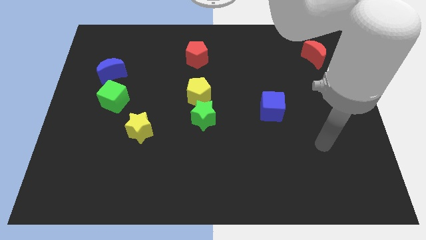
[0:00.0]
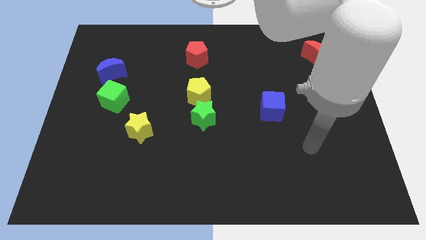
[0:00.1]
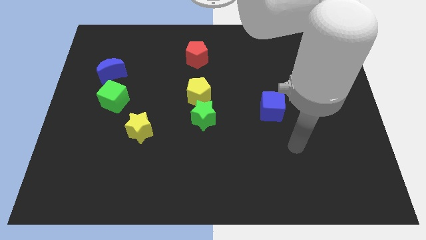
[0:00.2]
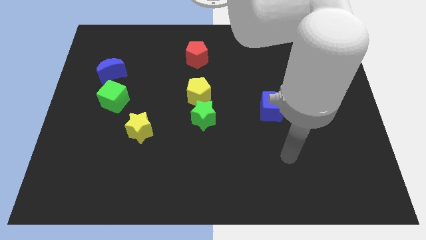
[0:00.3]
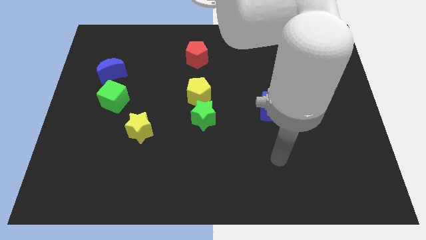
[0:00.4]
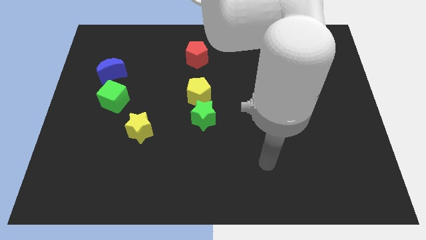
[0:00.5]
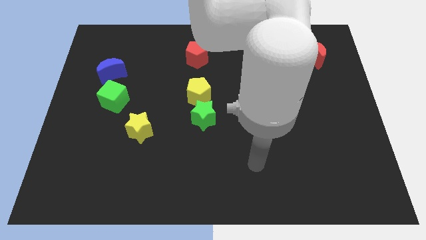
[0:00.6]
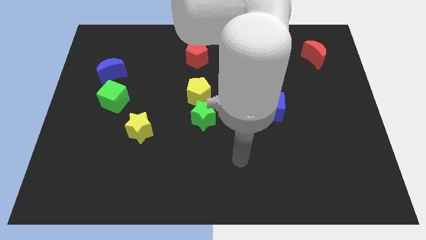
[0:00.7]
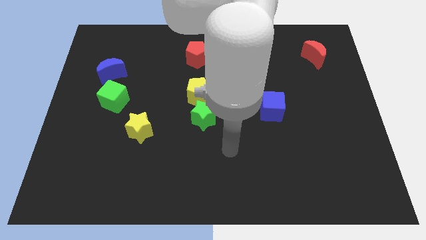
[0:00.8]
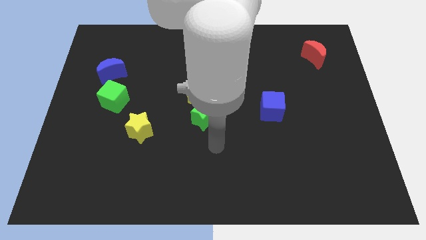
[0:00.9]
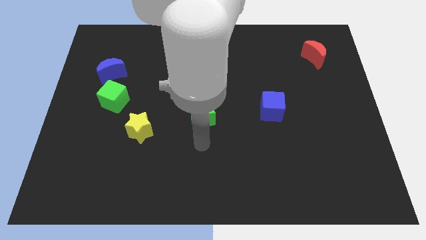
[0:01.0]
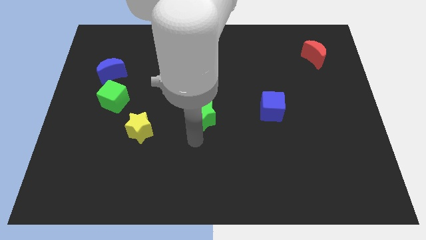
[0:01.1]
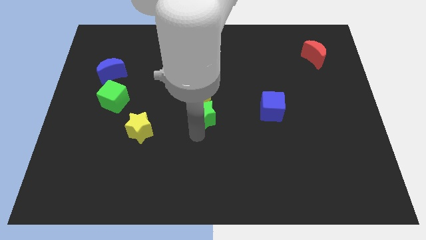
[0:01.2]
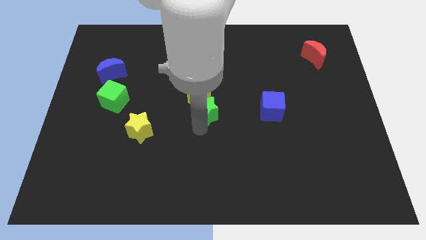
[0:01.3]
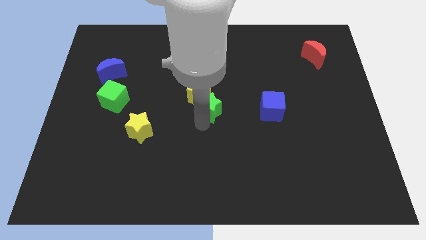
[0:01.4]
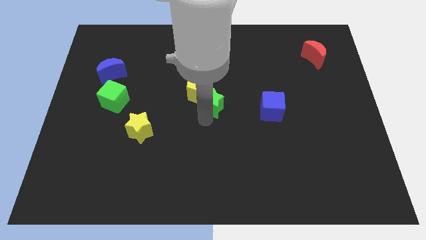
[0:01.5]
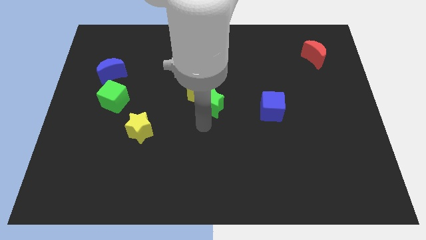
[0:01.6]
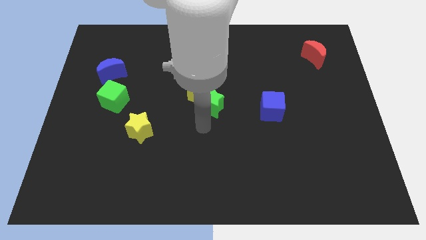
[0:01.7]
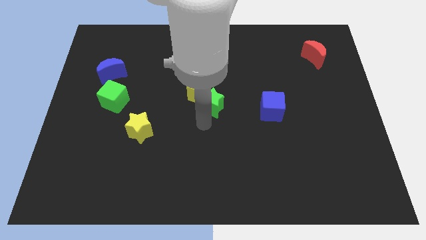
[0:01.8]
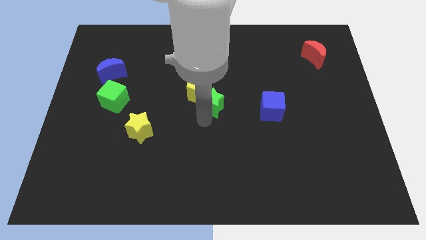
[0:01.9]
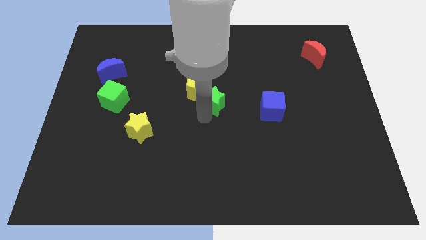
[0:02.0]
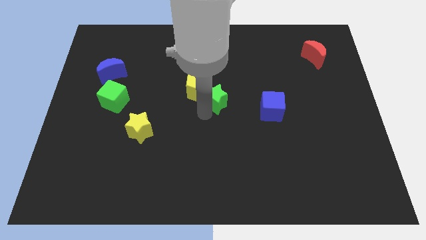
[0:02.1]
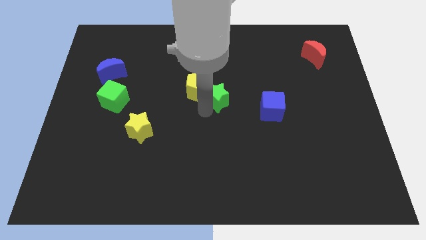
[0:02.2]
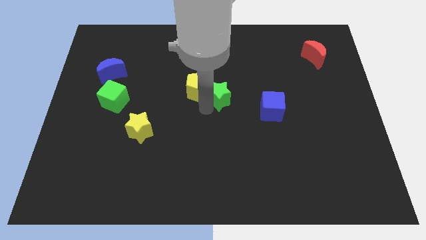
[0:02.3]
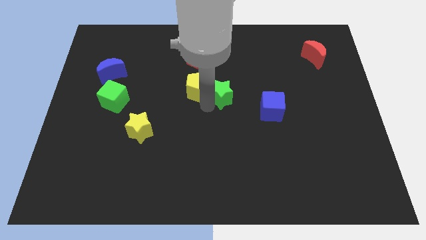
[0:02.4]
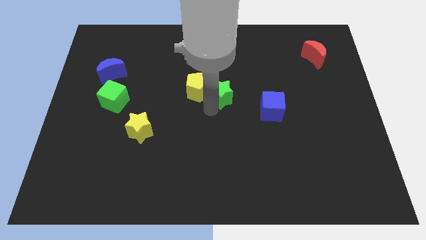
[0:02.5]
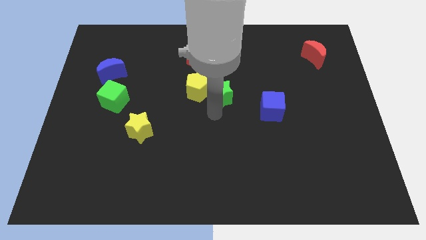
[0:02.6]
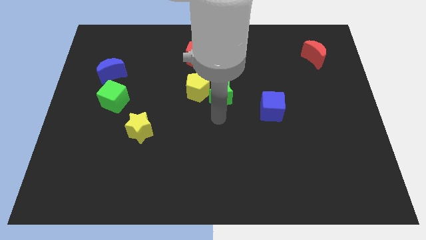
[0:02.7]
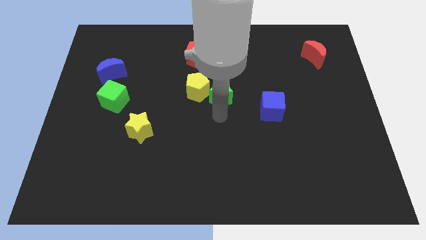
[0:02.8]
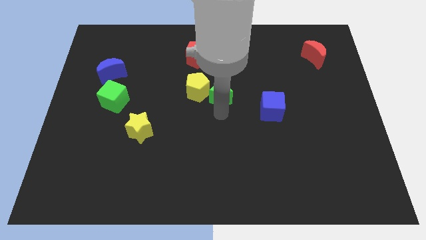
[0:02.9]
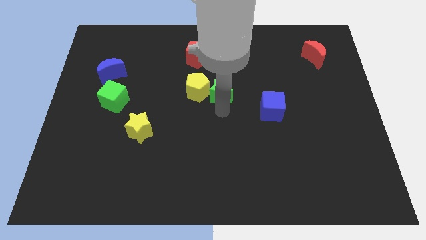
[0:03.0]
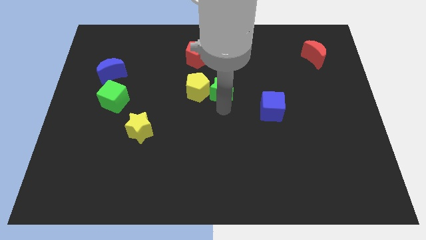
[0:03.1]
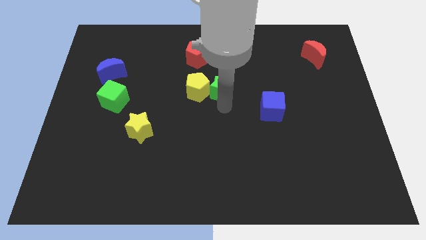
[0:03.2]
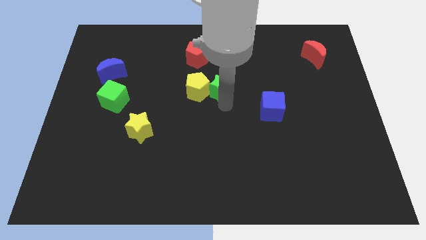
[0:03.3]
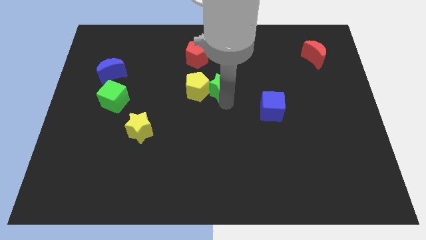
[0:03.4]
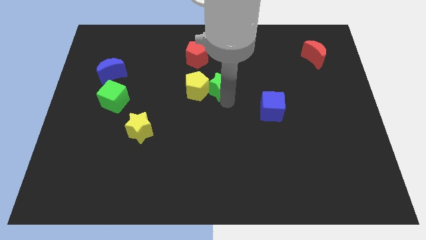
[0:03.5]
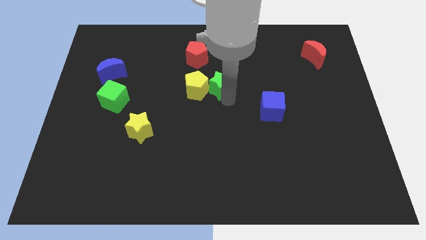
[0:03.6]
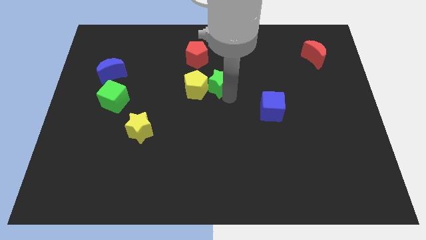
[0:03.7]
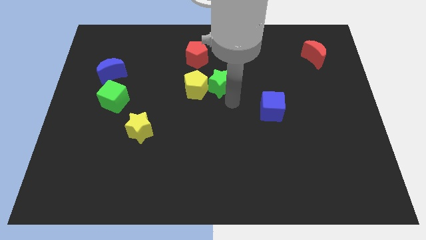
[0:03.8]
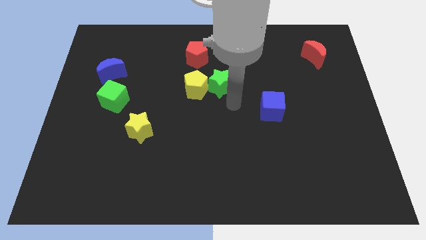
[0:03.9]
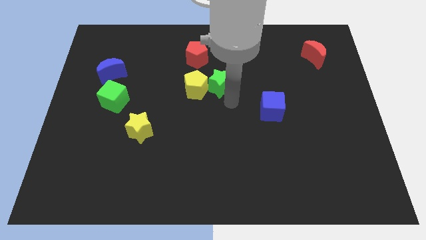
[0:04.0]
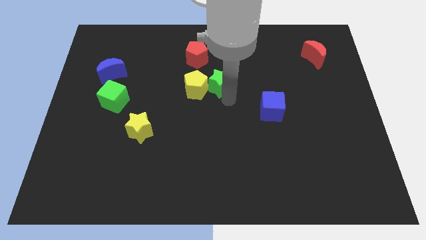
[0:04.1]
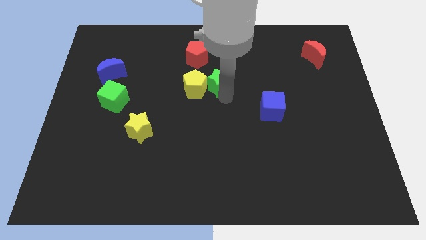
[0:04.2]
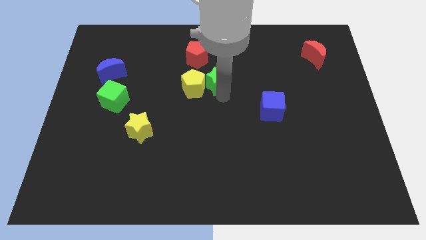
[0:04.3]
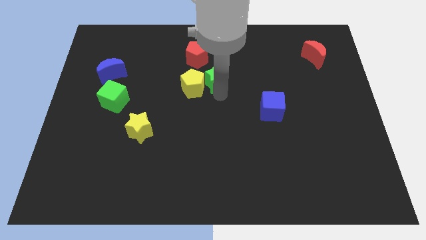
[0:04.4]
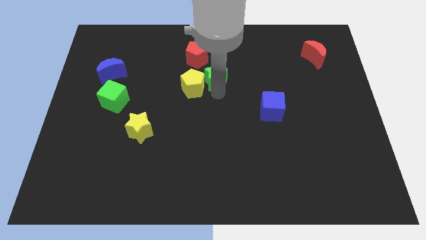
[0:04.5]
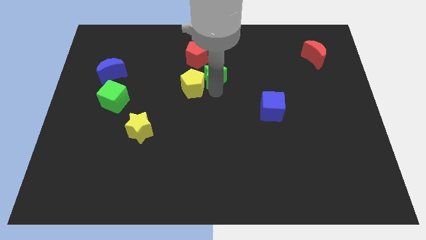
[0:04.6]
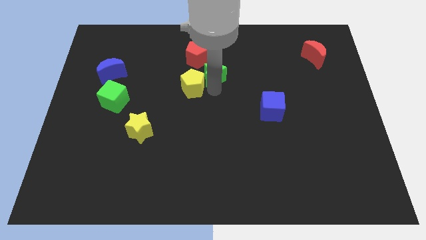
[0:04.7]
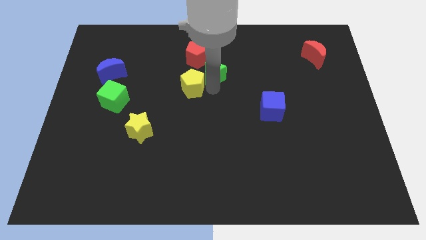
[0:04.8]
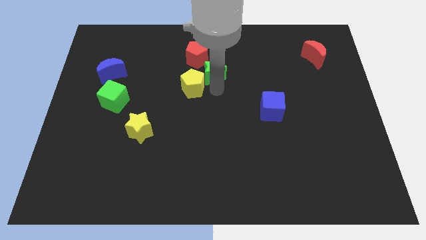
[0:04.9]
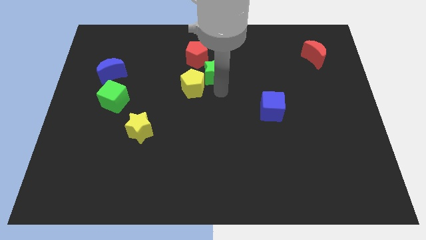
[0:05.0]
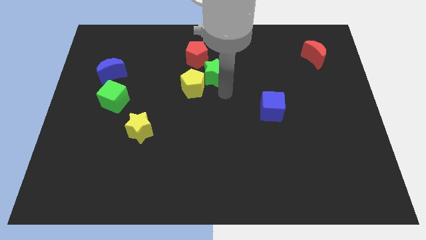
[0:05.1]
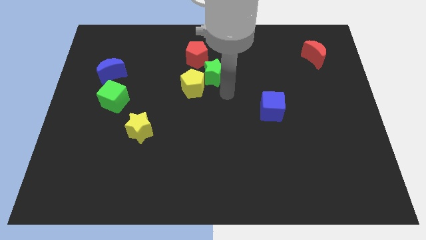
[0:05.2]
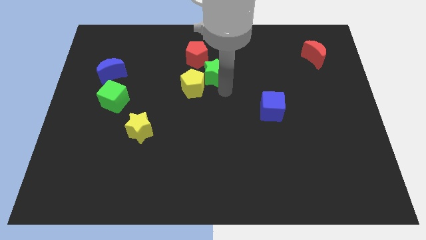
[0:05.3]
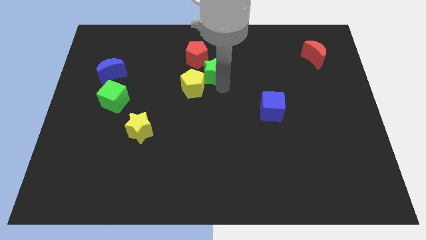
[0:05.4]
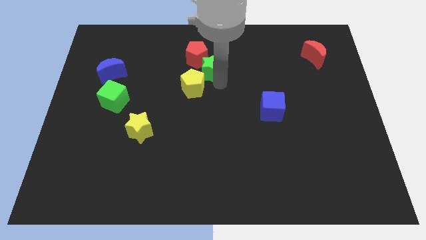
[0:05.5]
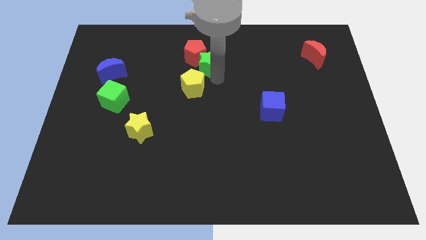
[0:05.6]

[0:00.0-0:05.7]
move the green star next to the red pentagon

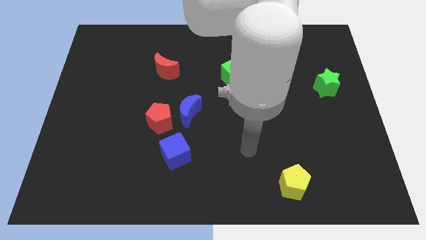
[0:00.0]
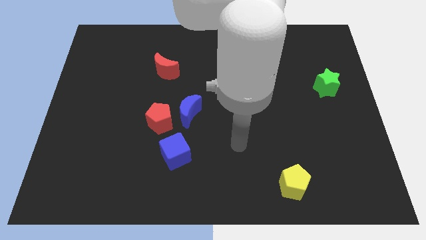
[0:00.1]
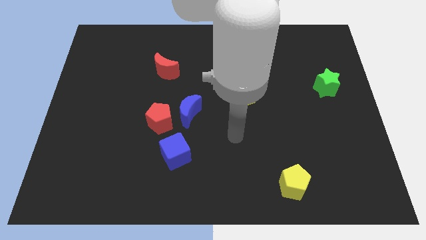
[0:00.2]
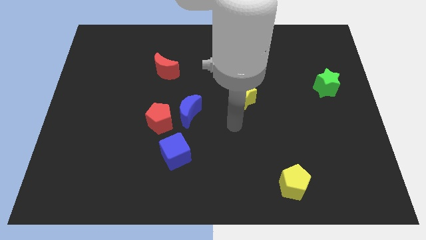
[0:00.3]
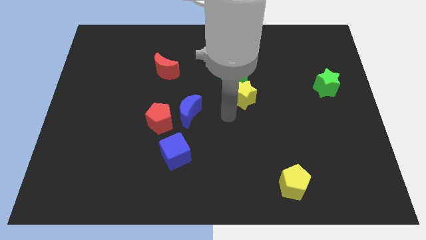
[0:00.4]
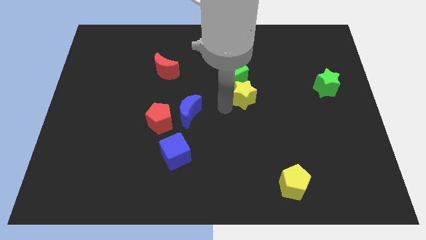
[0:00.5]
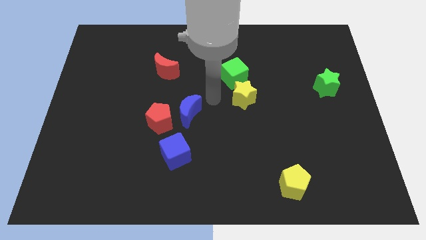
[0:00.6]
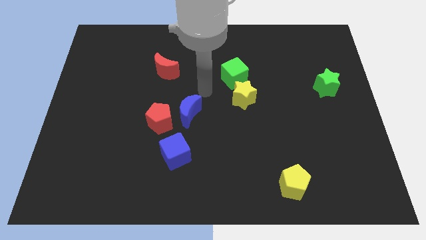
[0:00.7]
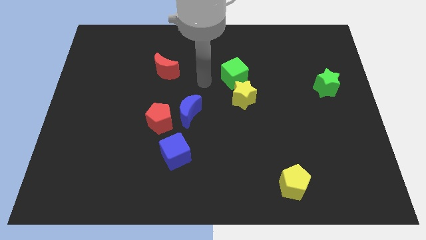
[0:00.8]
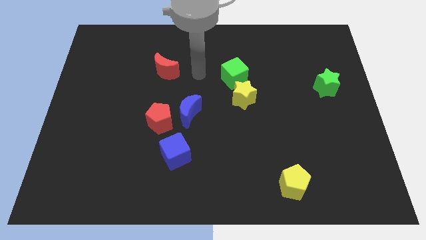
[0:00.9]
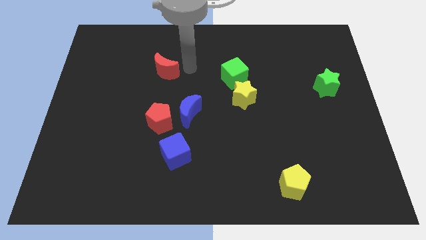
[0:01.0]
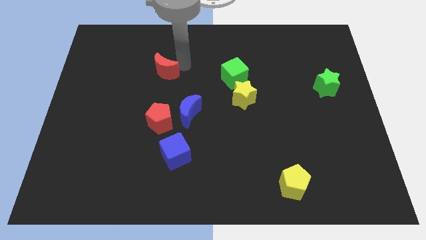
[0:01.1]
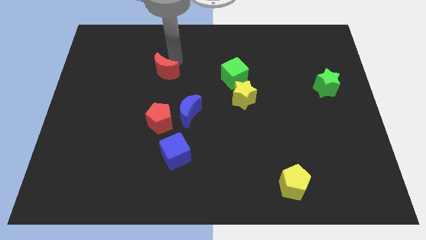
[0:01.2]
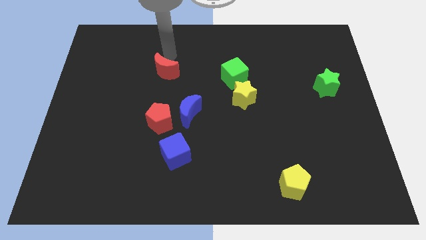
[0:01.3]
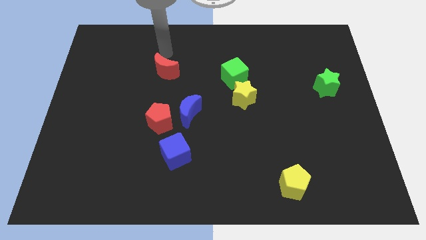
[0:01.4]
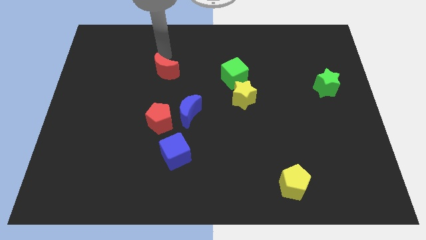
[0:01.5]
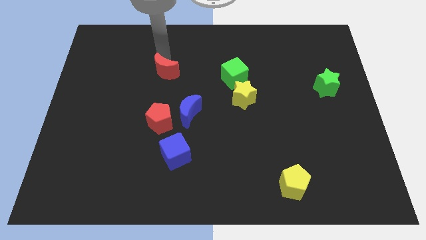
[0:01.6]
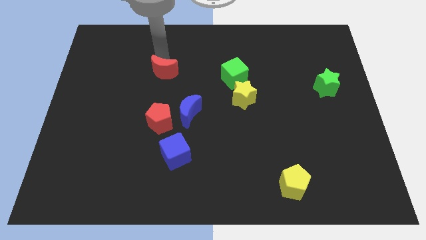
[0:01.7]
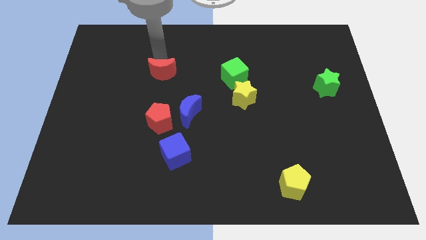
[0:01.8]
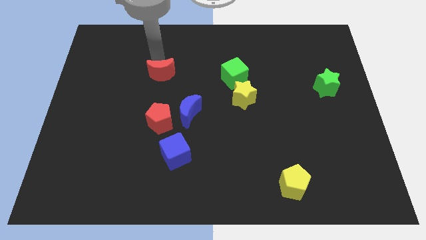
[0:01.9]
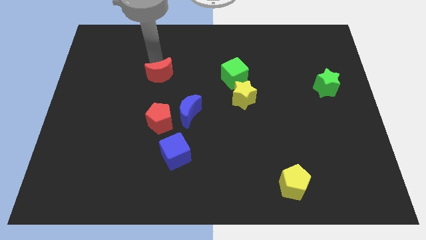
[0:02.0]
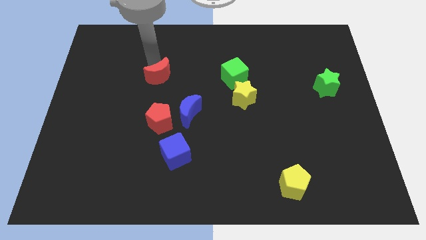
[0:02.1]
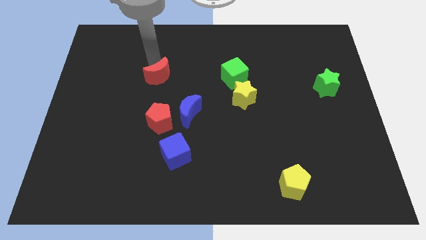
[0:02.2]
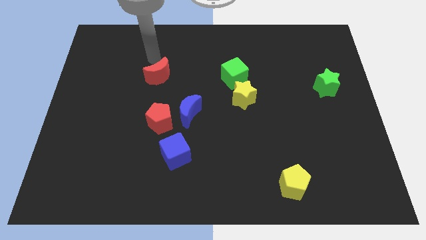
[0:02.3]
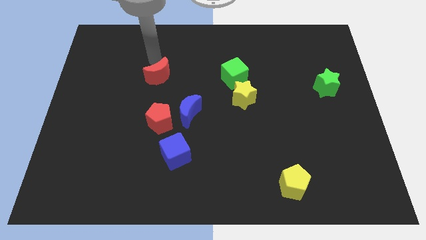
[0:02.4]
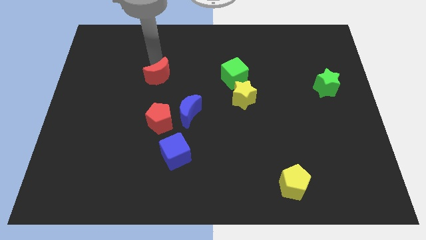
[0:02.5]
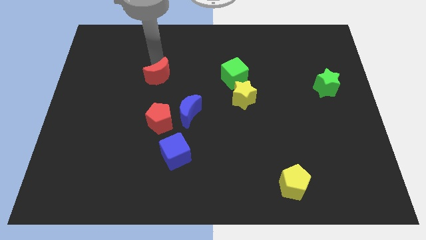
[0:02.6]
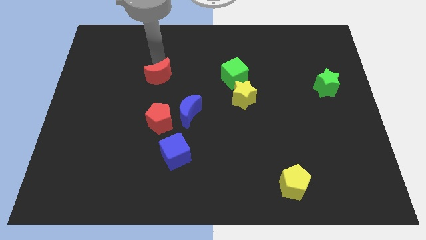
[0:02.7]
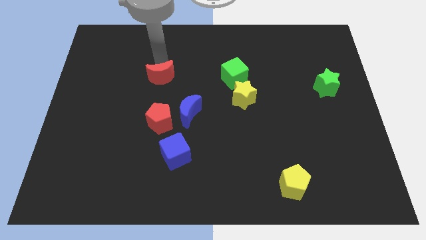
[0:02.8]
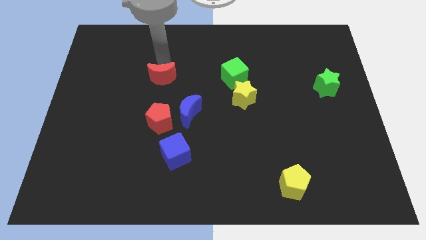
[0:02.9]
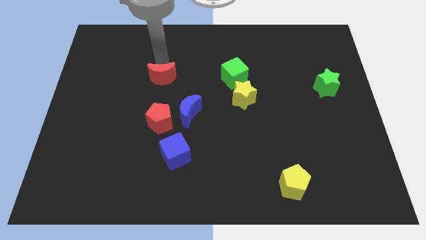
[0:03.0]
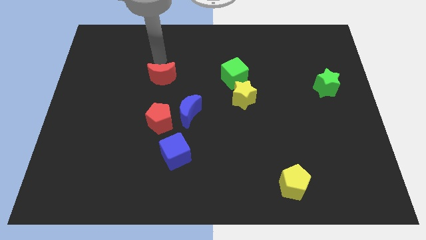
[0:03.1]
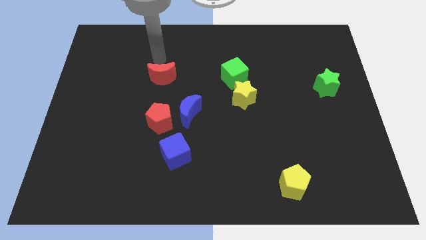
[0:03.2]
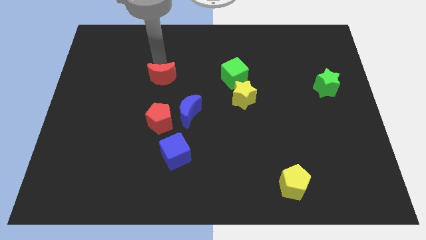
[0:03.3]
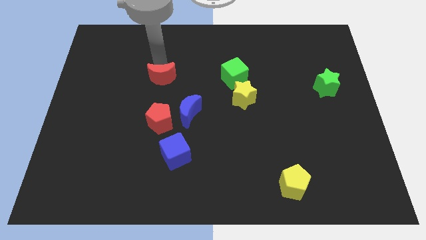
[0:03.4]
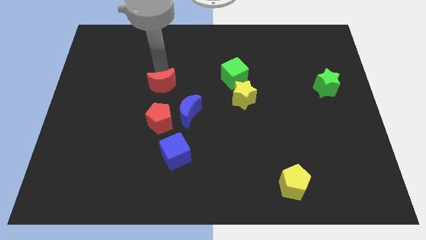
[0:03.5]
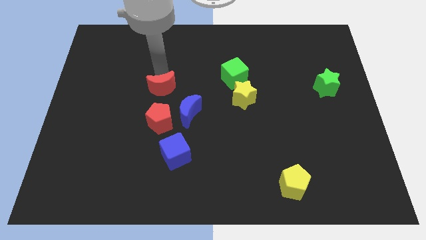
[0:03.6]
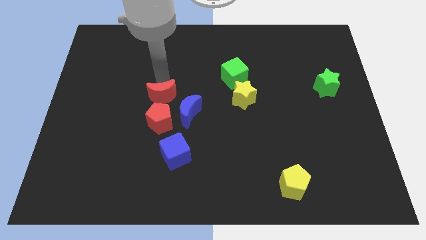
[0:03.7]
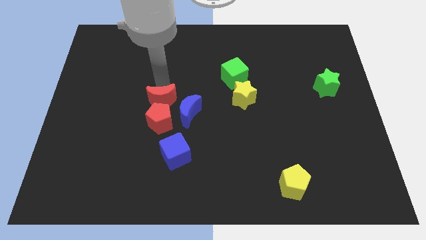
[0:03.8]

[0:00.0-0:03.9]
put the red moon towards the red pentagon
